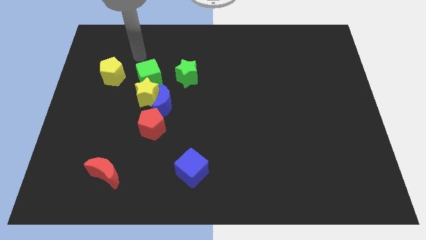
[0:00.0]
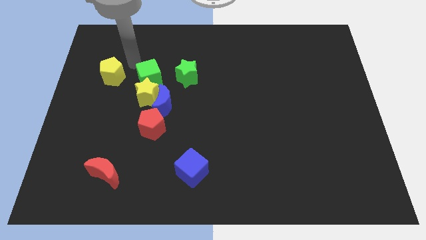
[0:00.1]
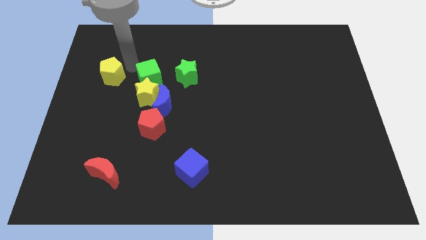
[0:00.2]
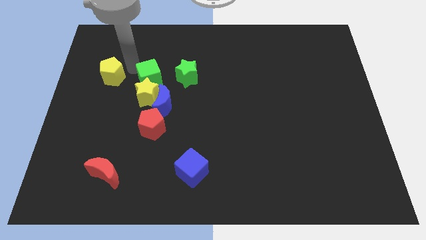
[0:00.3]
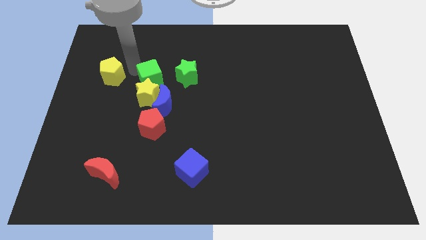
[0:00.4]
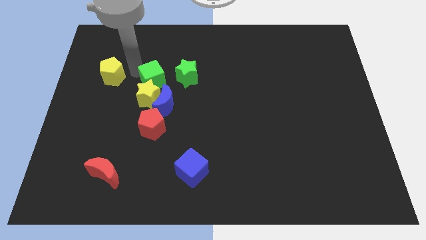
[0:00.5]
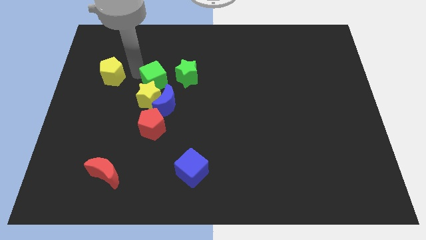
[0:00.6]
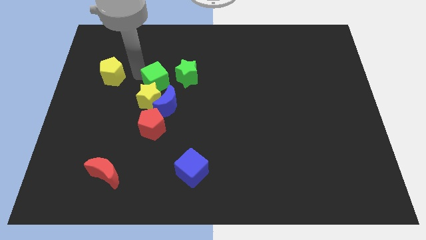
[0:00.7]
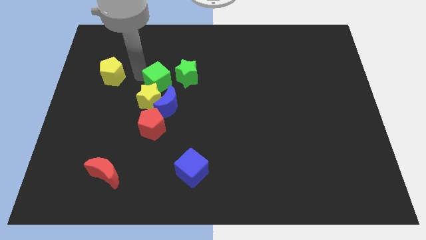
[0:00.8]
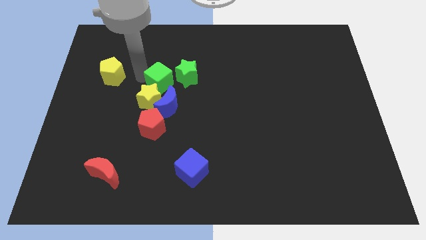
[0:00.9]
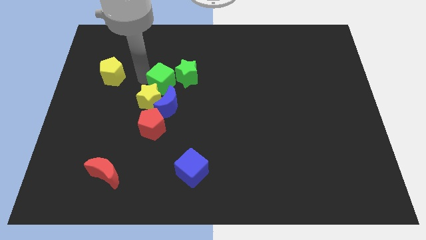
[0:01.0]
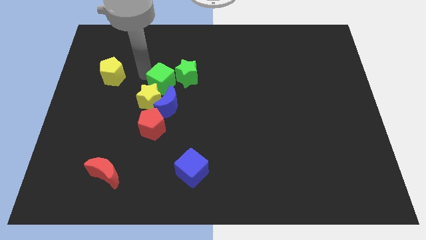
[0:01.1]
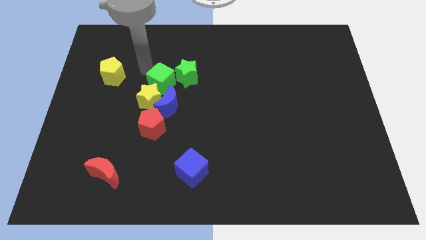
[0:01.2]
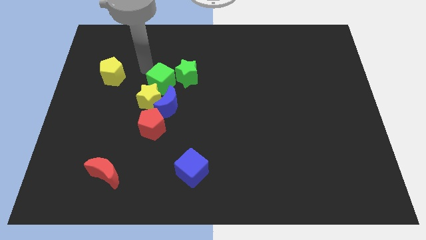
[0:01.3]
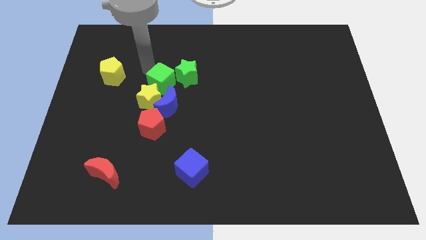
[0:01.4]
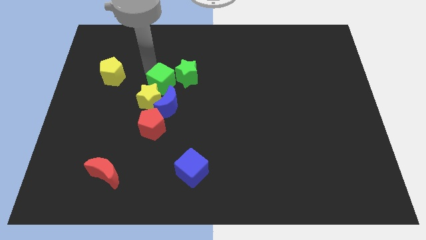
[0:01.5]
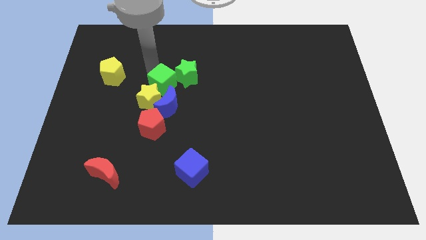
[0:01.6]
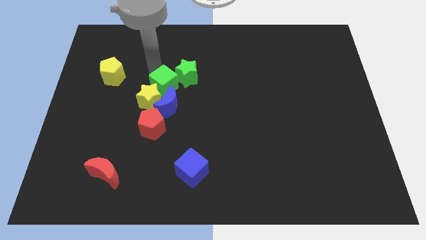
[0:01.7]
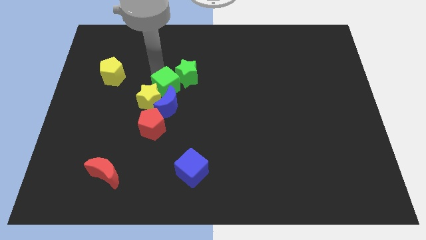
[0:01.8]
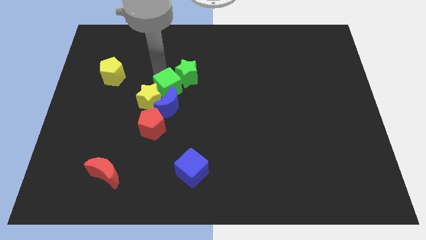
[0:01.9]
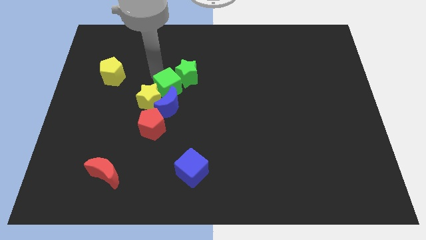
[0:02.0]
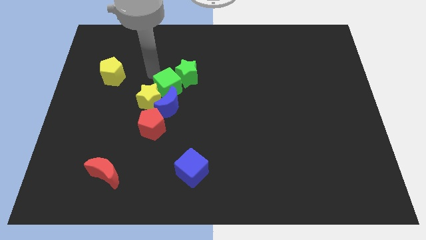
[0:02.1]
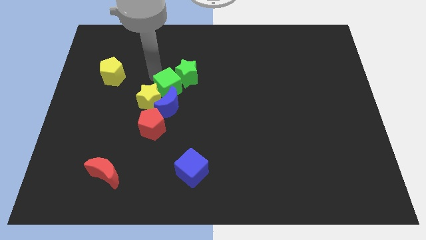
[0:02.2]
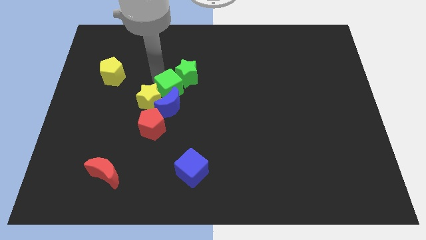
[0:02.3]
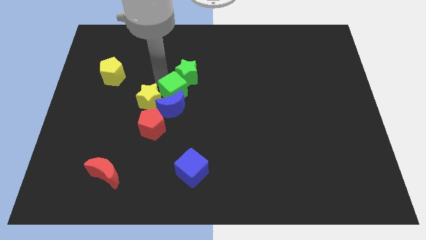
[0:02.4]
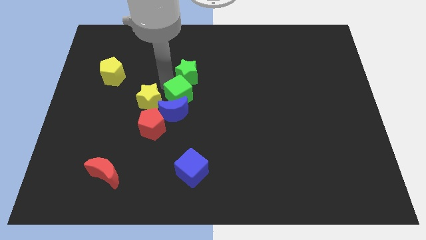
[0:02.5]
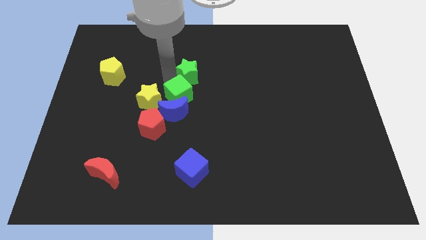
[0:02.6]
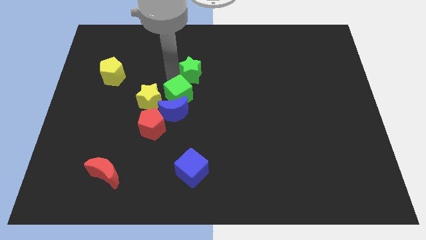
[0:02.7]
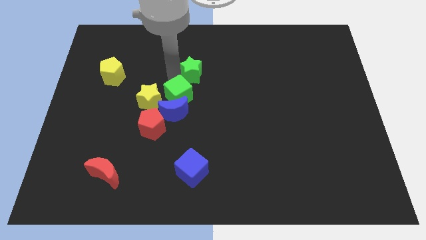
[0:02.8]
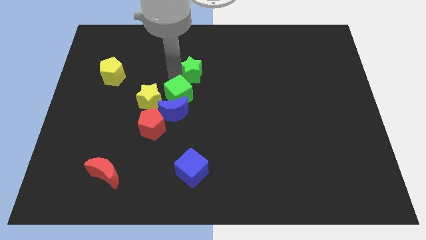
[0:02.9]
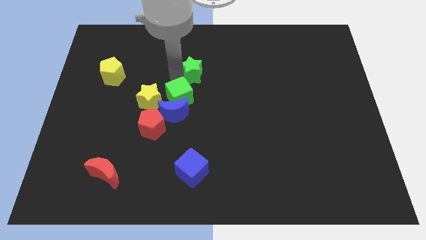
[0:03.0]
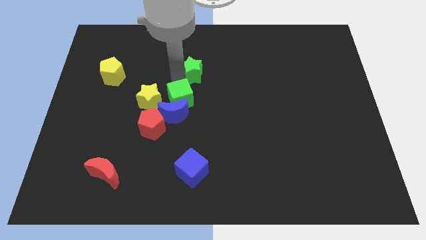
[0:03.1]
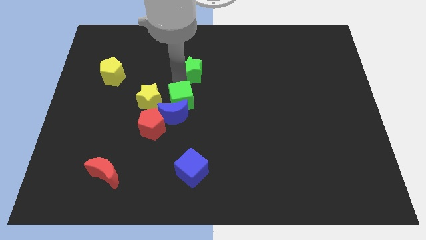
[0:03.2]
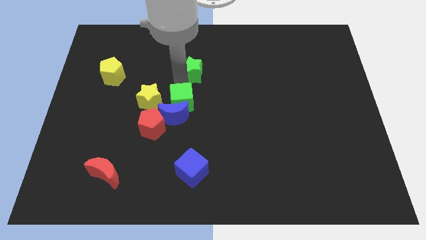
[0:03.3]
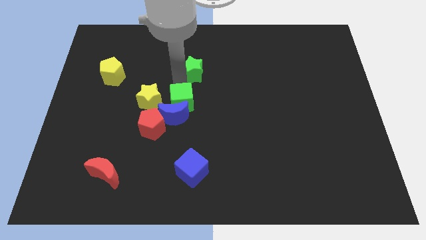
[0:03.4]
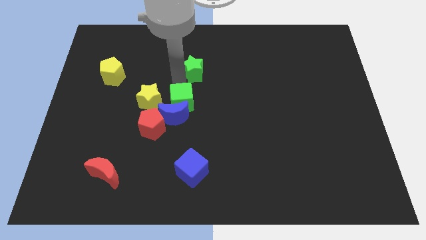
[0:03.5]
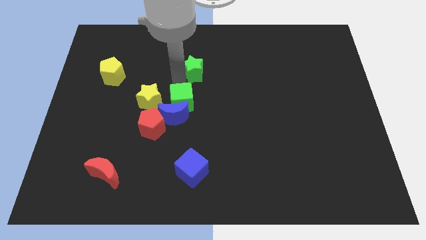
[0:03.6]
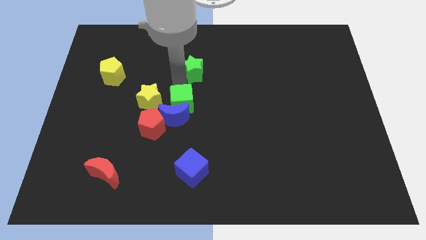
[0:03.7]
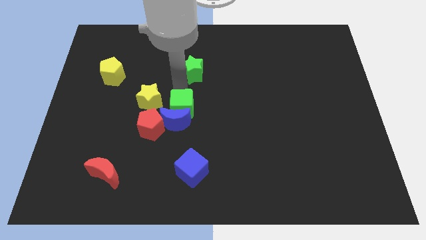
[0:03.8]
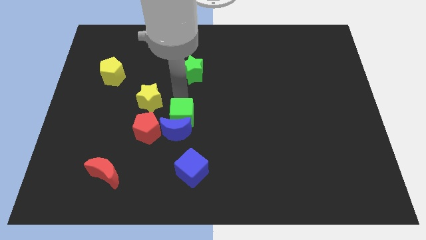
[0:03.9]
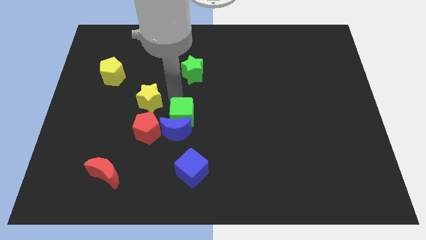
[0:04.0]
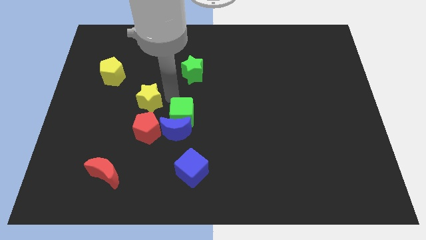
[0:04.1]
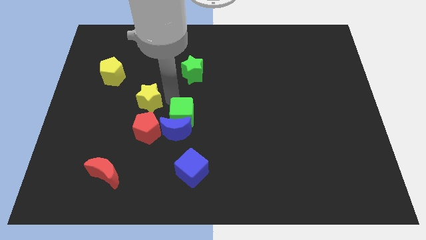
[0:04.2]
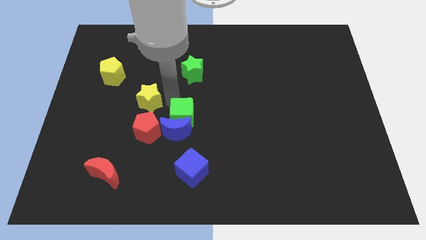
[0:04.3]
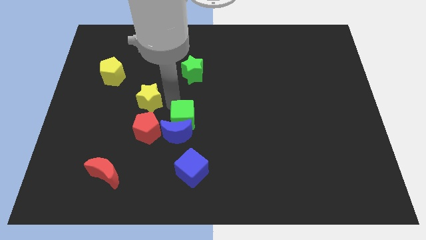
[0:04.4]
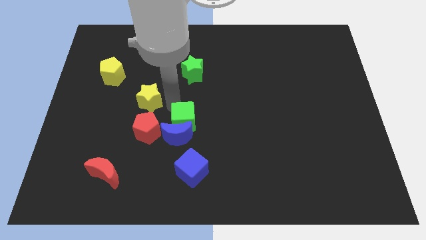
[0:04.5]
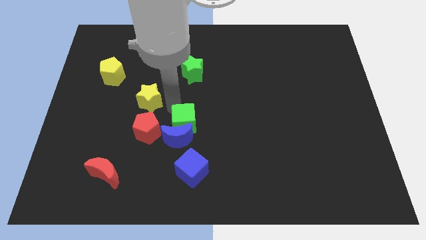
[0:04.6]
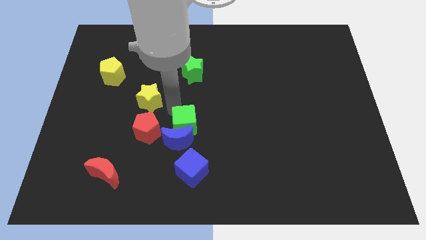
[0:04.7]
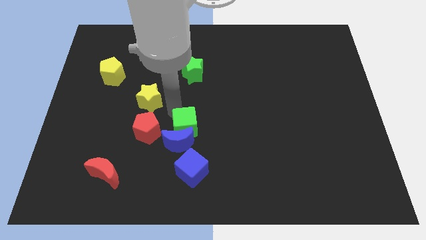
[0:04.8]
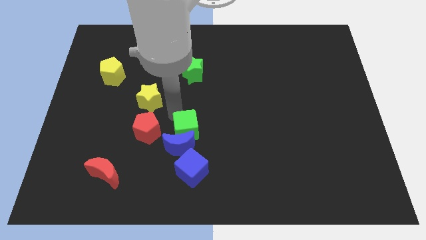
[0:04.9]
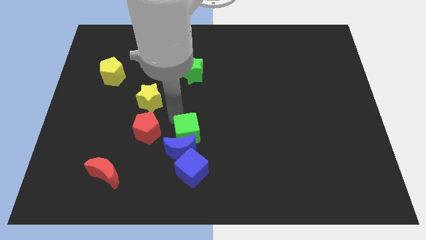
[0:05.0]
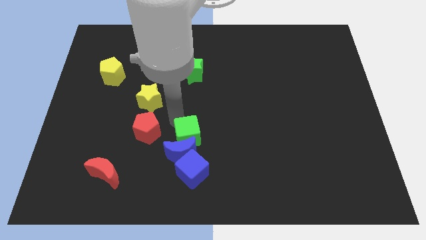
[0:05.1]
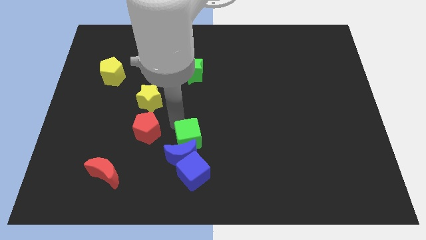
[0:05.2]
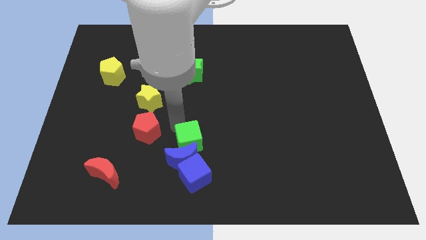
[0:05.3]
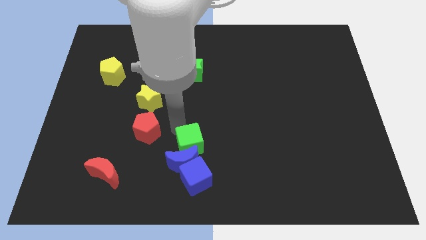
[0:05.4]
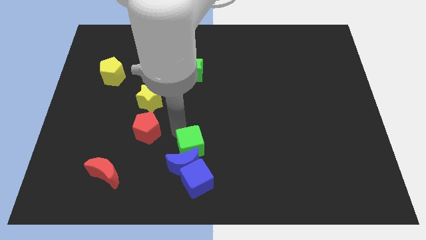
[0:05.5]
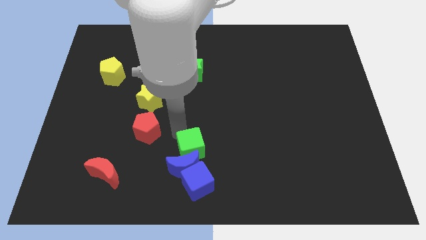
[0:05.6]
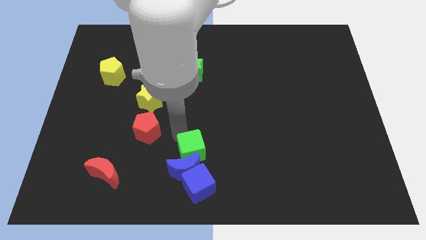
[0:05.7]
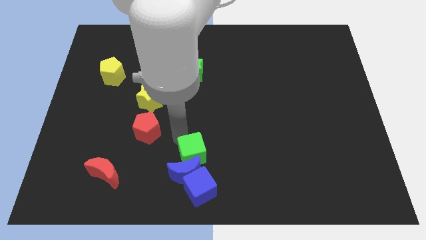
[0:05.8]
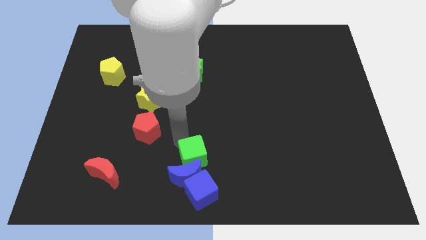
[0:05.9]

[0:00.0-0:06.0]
push the green cube to the bottom

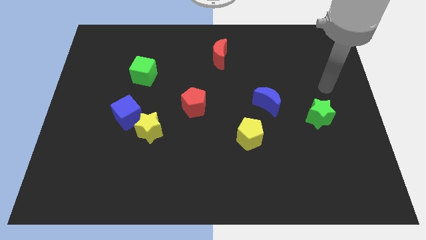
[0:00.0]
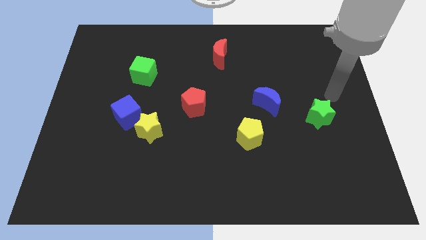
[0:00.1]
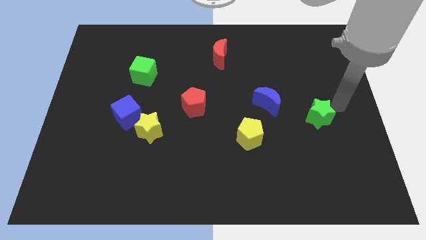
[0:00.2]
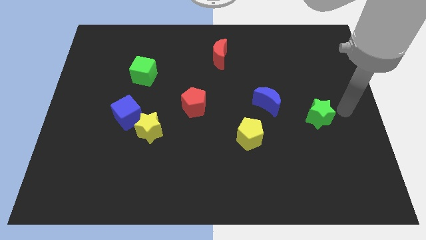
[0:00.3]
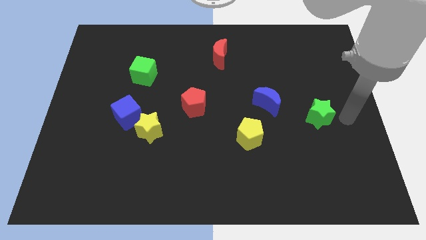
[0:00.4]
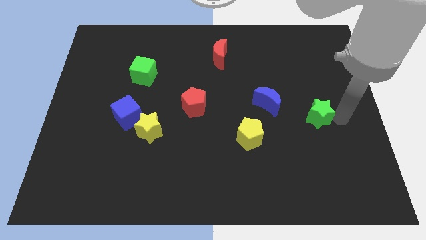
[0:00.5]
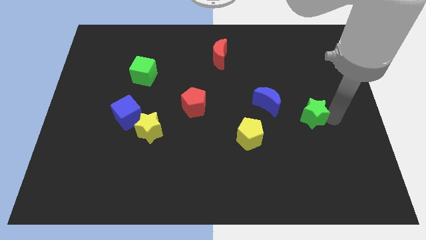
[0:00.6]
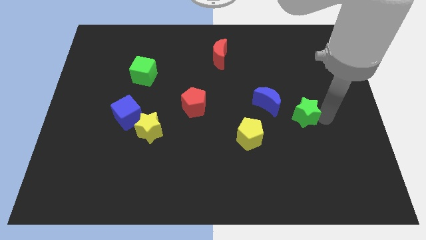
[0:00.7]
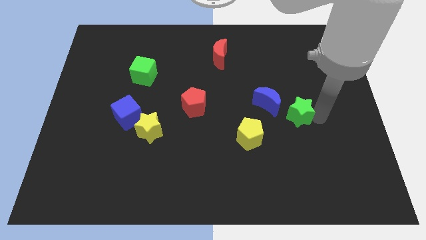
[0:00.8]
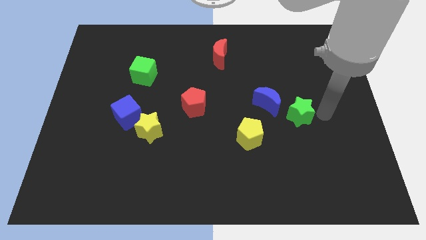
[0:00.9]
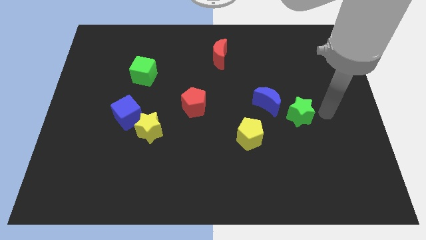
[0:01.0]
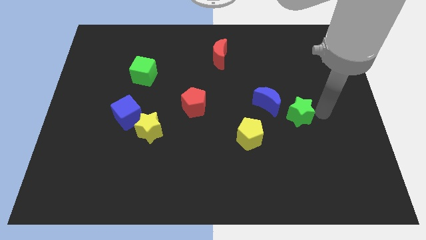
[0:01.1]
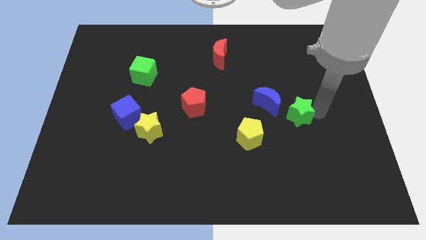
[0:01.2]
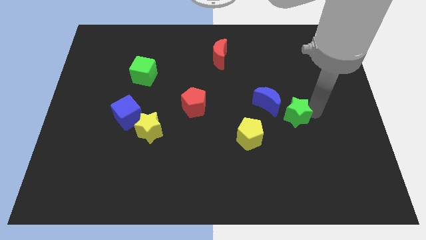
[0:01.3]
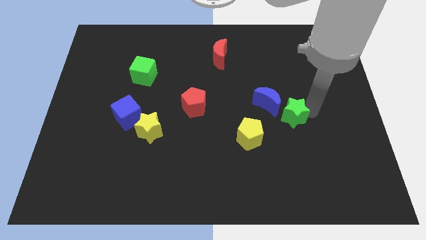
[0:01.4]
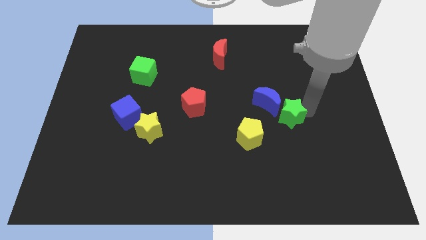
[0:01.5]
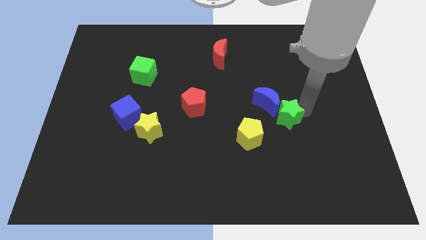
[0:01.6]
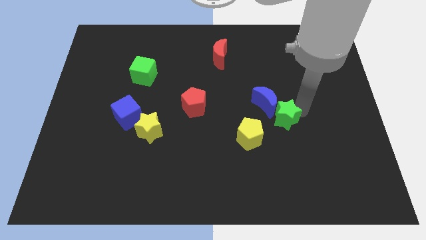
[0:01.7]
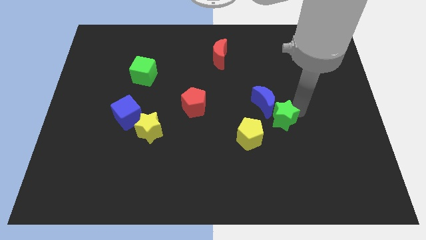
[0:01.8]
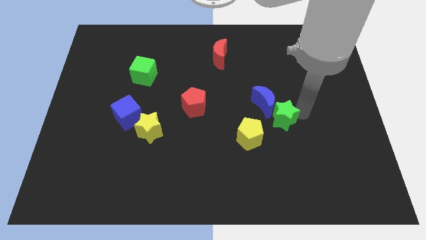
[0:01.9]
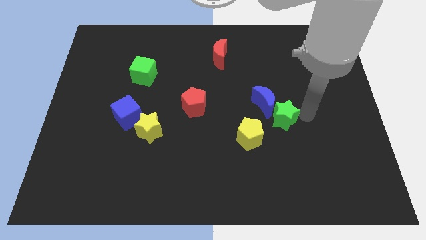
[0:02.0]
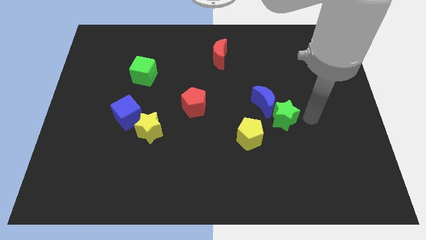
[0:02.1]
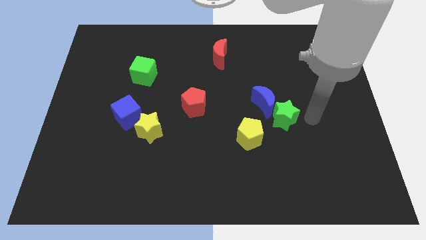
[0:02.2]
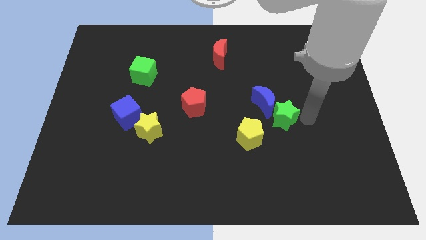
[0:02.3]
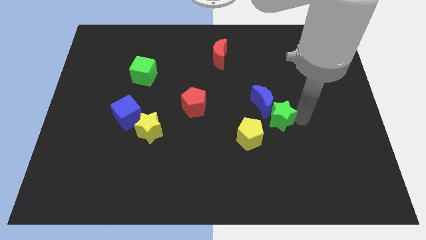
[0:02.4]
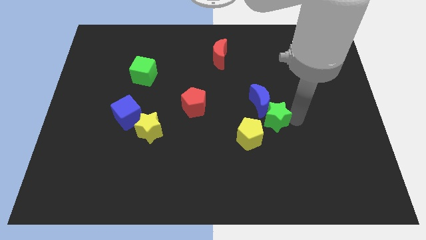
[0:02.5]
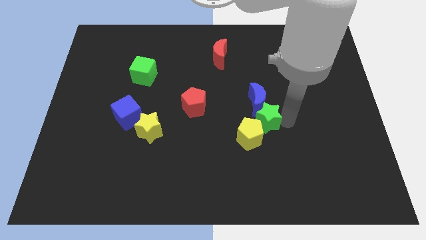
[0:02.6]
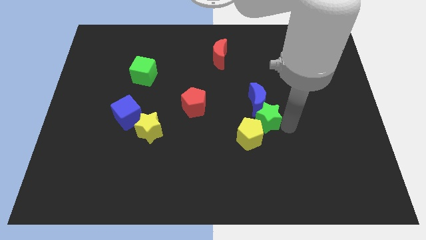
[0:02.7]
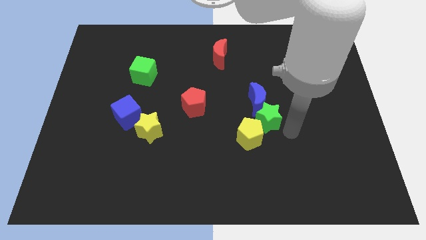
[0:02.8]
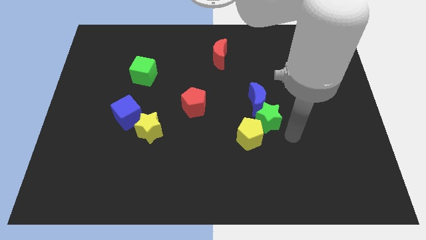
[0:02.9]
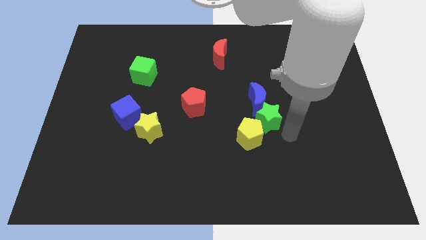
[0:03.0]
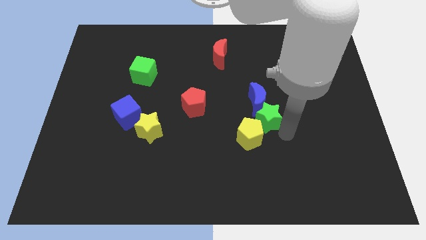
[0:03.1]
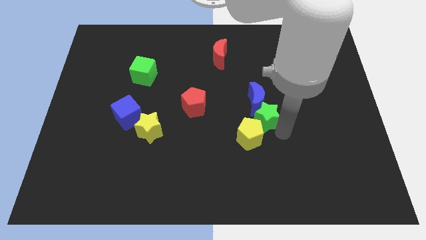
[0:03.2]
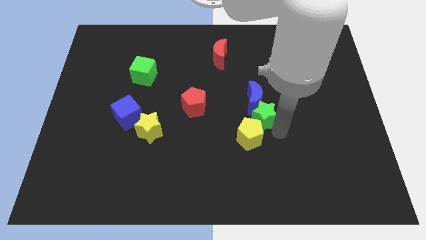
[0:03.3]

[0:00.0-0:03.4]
put the green star to the middle of the board
